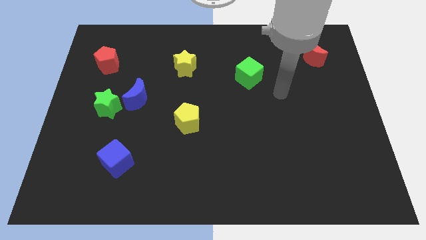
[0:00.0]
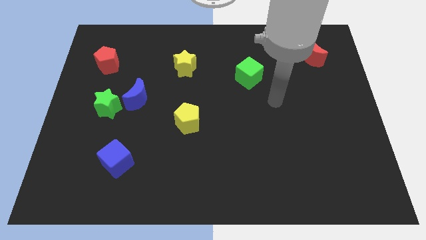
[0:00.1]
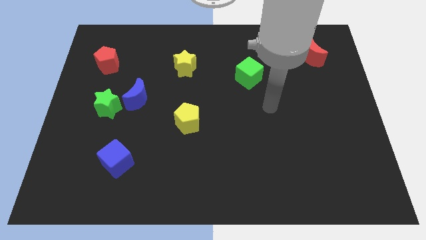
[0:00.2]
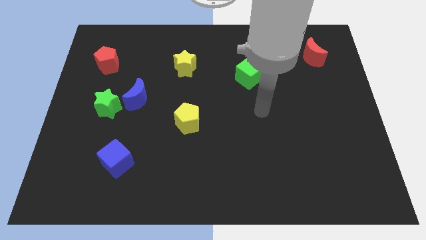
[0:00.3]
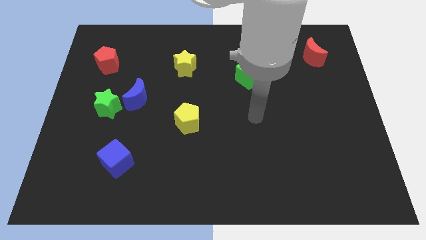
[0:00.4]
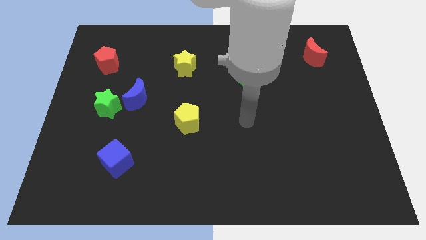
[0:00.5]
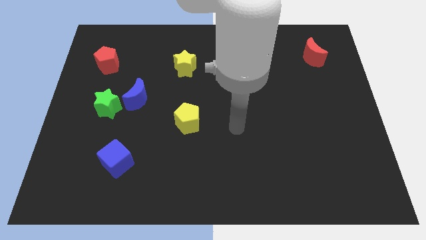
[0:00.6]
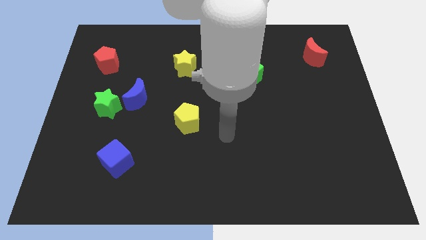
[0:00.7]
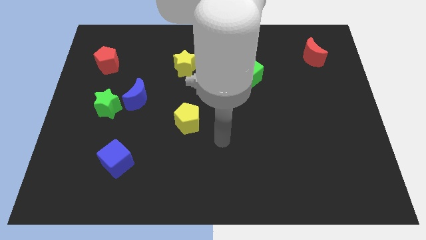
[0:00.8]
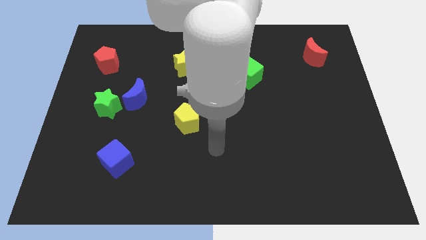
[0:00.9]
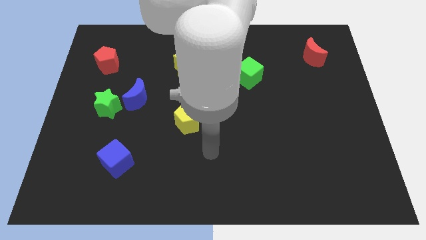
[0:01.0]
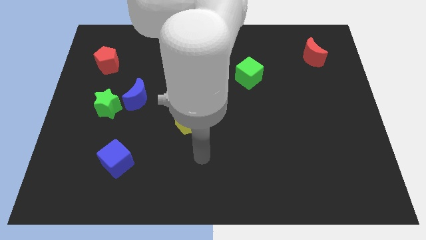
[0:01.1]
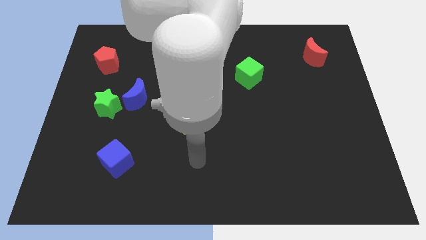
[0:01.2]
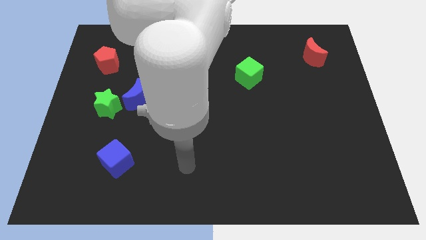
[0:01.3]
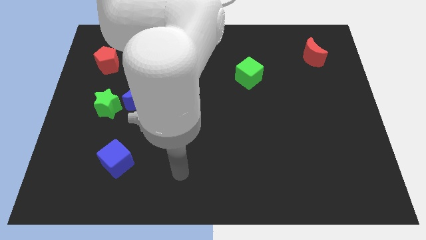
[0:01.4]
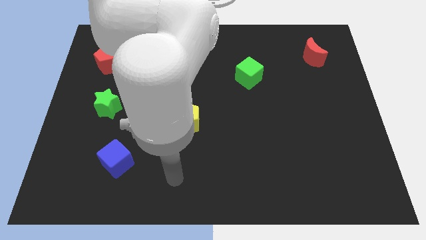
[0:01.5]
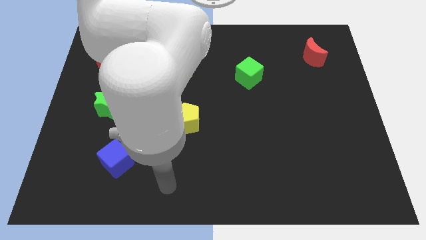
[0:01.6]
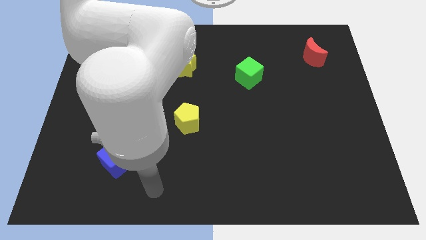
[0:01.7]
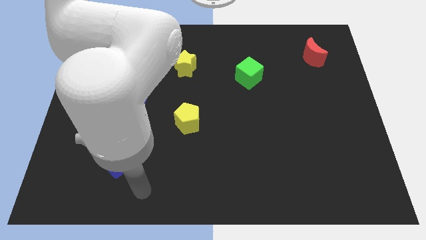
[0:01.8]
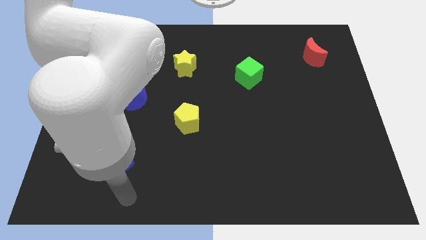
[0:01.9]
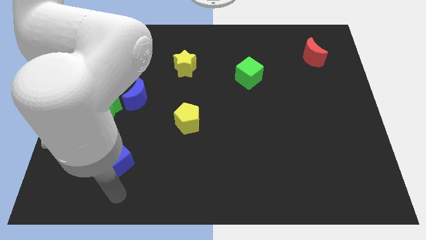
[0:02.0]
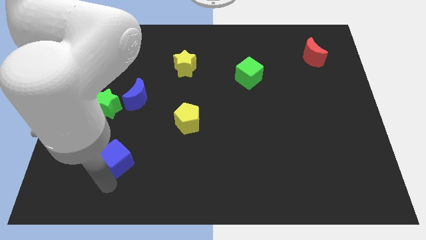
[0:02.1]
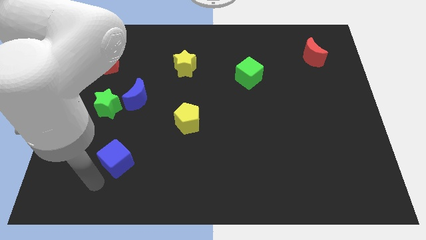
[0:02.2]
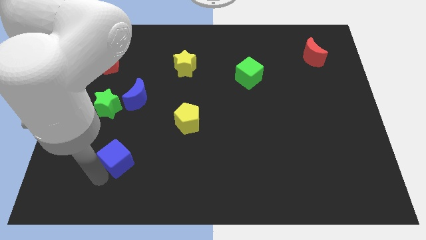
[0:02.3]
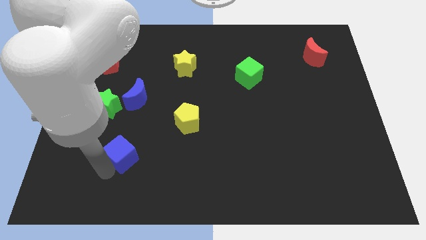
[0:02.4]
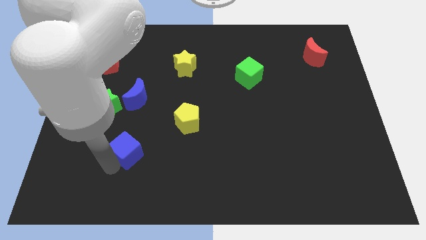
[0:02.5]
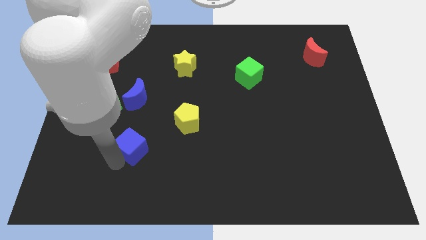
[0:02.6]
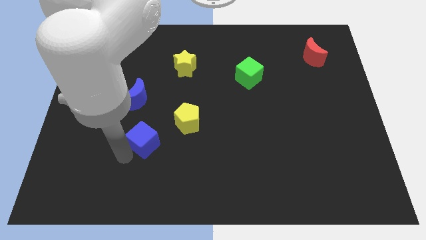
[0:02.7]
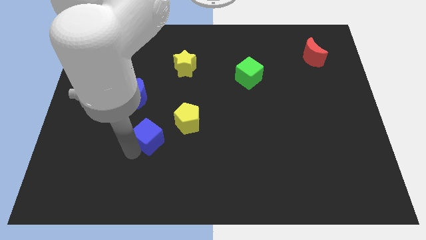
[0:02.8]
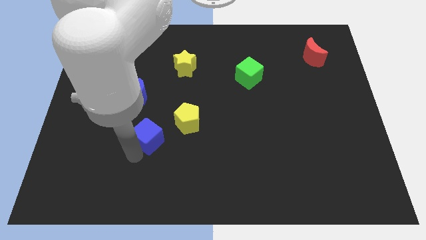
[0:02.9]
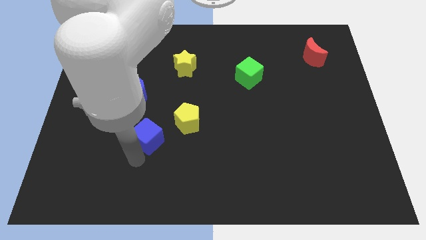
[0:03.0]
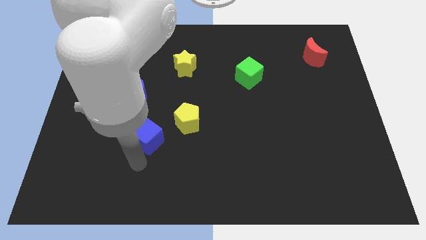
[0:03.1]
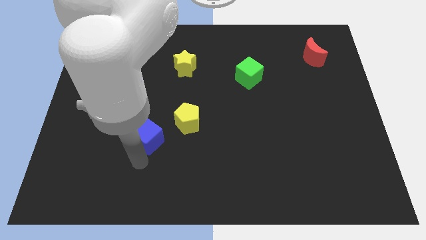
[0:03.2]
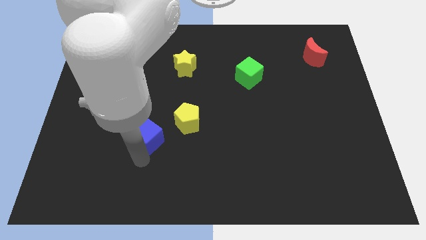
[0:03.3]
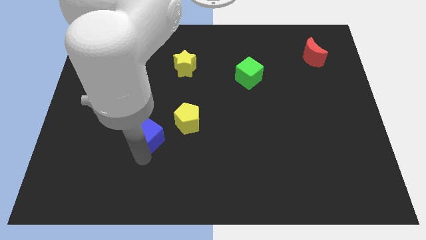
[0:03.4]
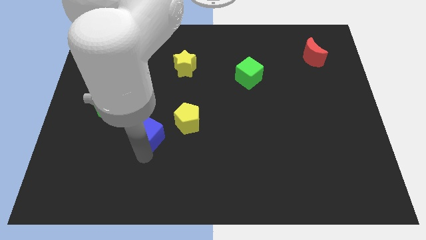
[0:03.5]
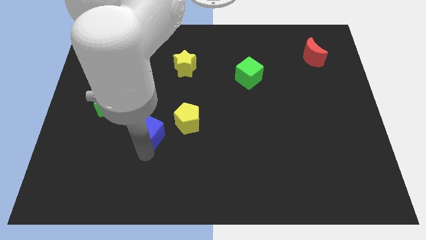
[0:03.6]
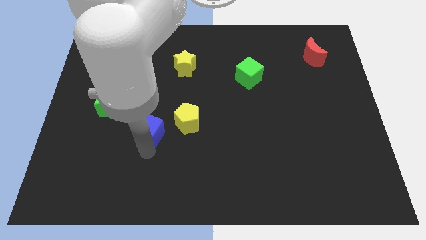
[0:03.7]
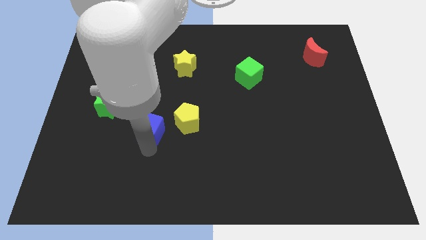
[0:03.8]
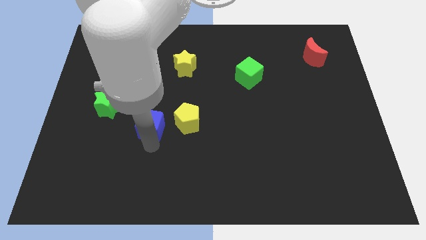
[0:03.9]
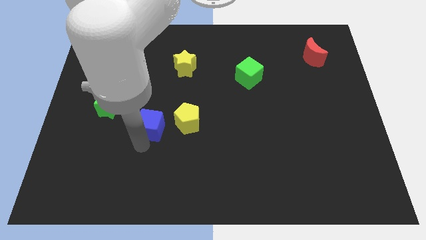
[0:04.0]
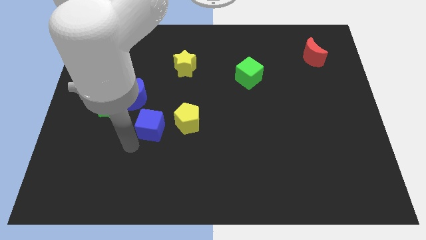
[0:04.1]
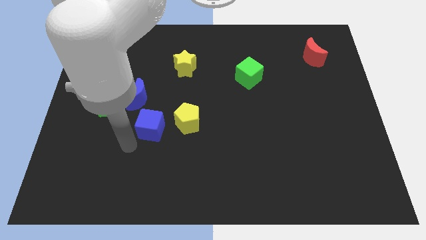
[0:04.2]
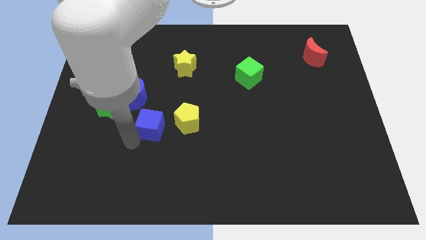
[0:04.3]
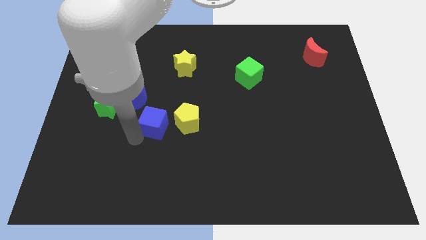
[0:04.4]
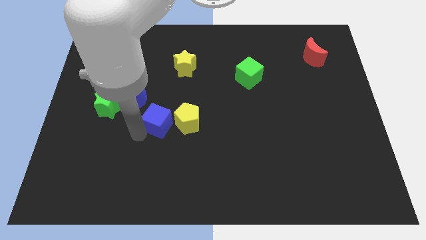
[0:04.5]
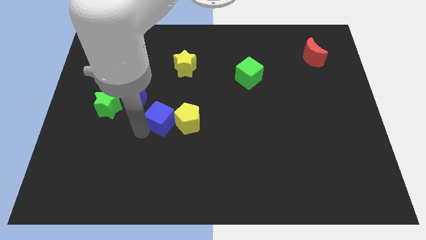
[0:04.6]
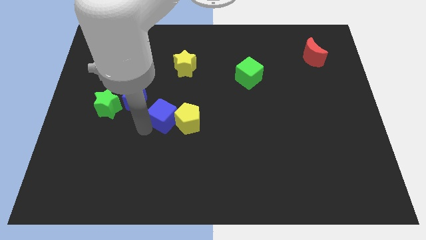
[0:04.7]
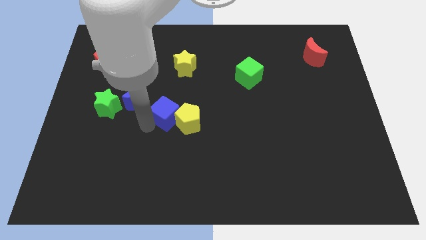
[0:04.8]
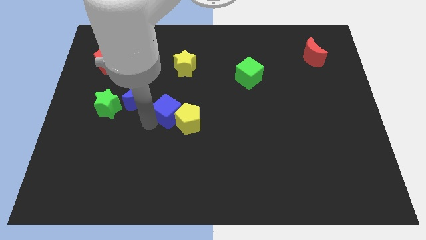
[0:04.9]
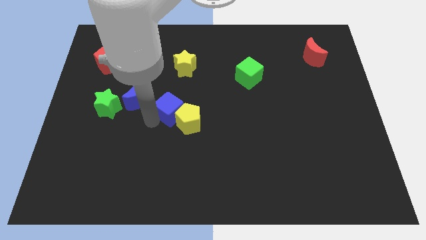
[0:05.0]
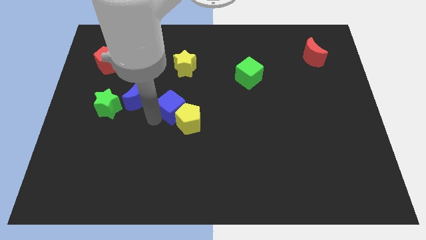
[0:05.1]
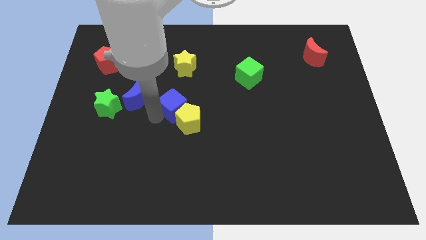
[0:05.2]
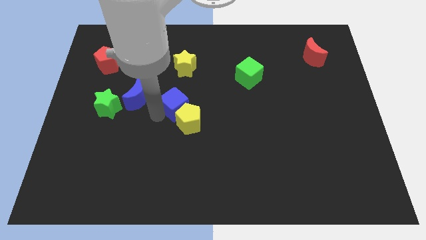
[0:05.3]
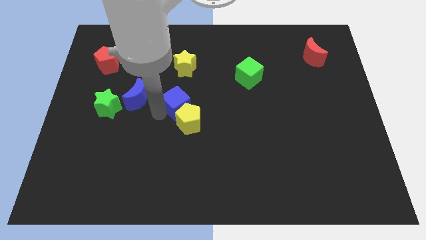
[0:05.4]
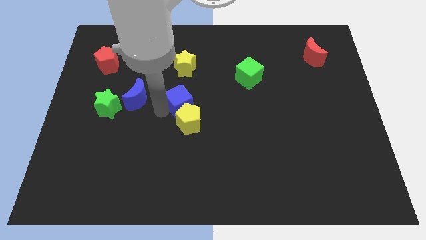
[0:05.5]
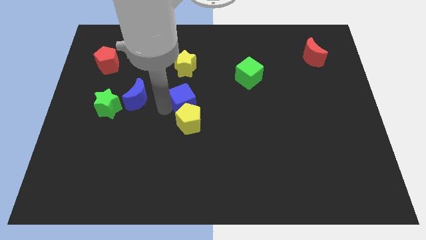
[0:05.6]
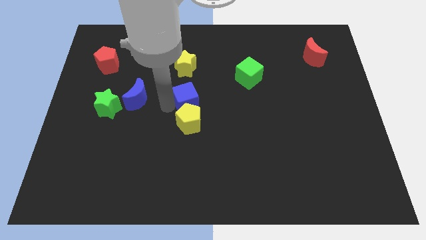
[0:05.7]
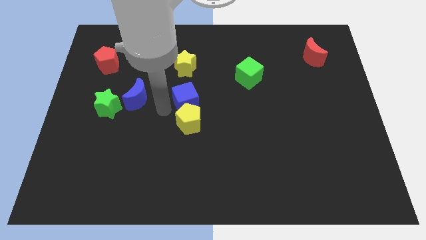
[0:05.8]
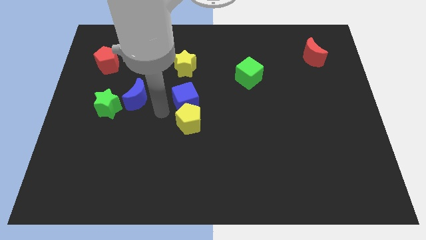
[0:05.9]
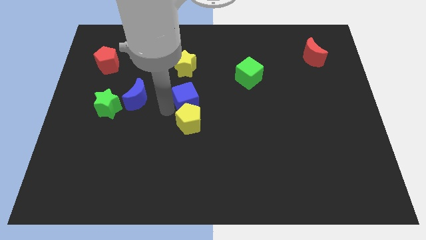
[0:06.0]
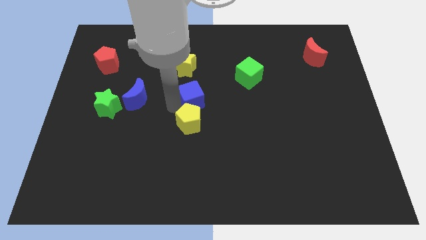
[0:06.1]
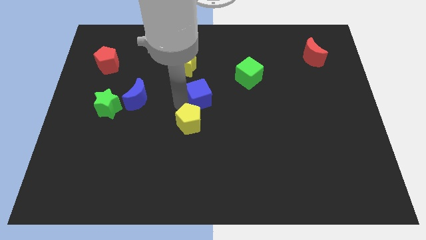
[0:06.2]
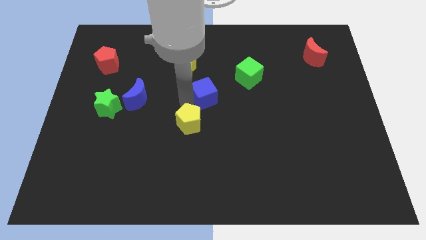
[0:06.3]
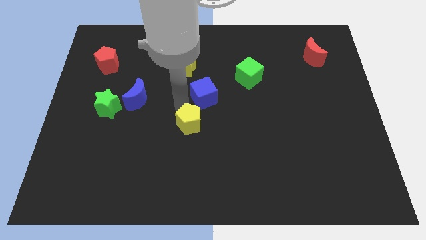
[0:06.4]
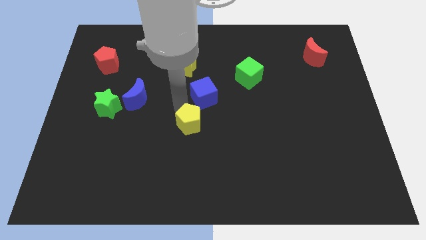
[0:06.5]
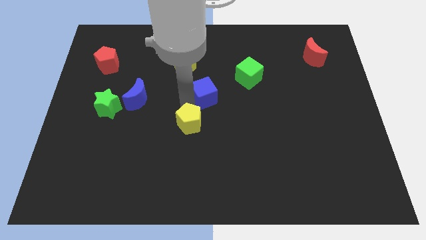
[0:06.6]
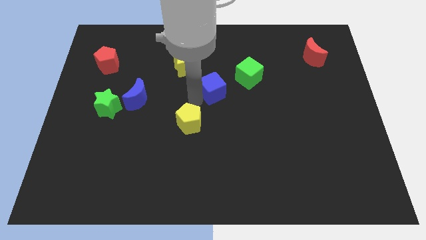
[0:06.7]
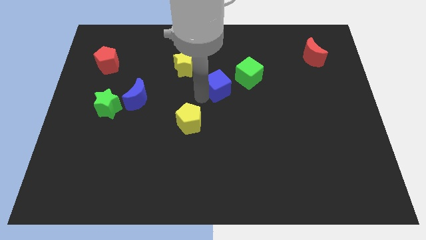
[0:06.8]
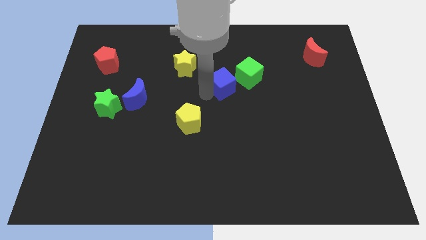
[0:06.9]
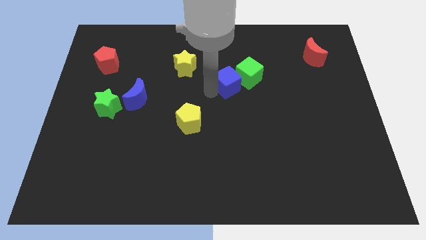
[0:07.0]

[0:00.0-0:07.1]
push the blue cube next to the green cube

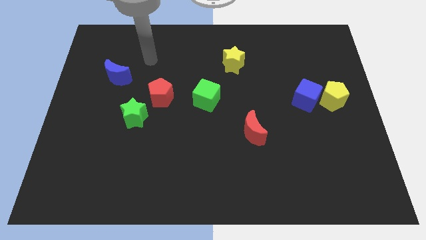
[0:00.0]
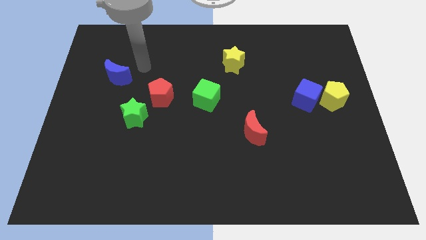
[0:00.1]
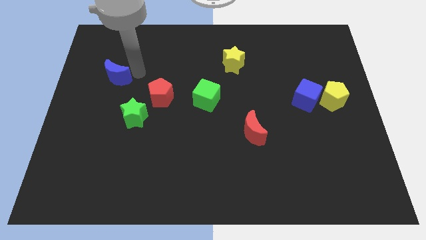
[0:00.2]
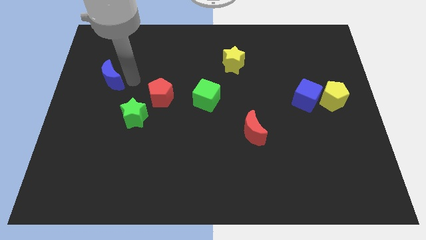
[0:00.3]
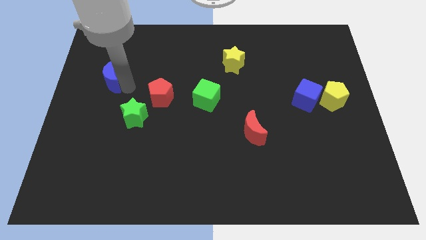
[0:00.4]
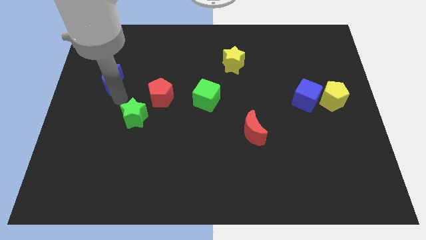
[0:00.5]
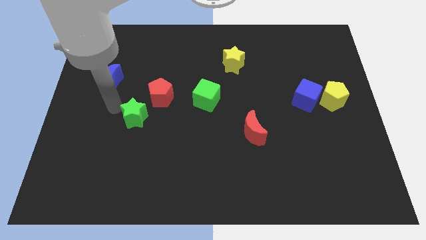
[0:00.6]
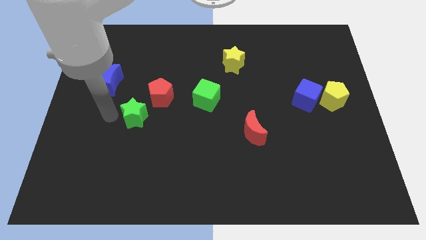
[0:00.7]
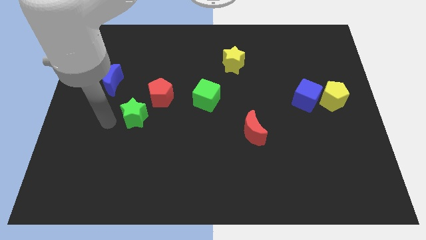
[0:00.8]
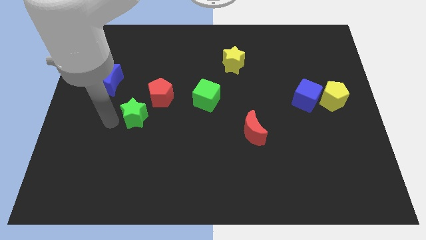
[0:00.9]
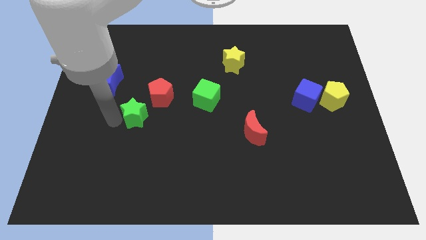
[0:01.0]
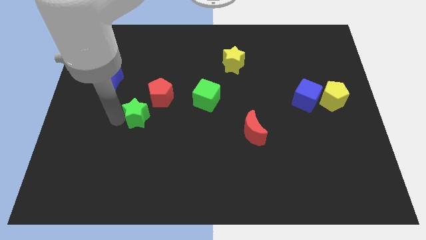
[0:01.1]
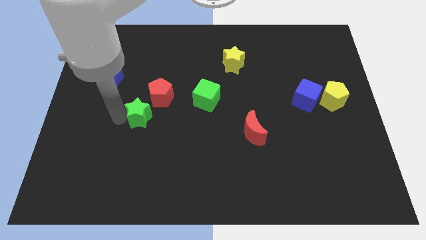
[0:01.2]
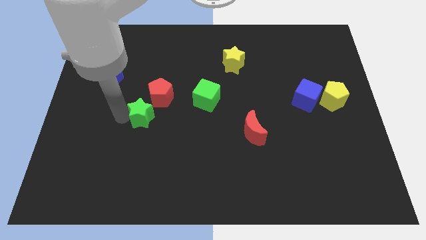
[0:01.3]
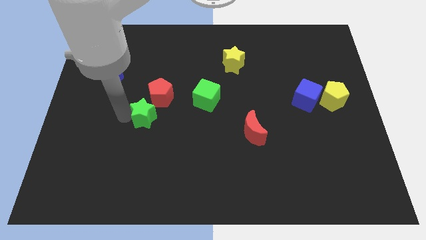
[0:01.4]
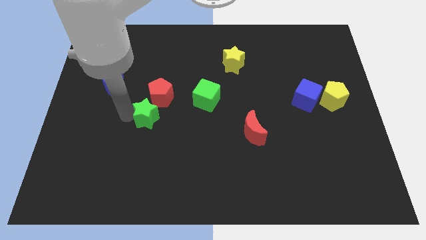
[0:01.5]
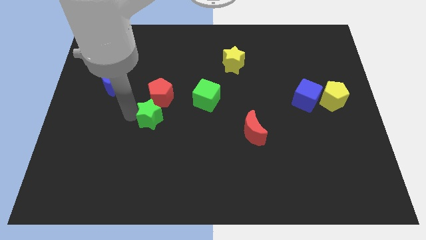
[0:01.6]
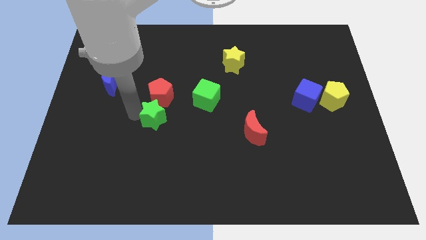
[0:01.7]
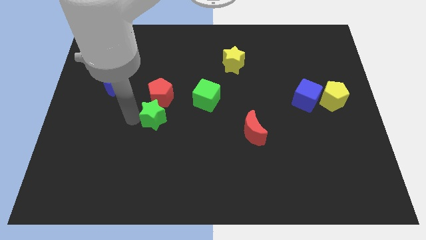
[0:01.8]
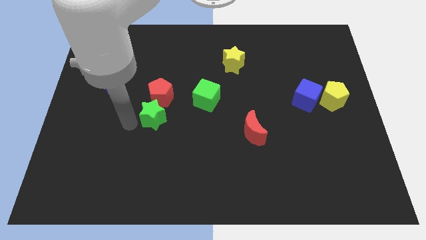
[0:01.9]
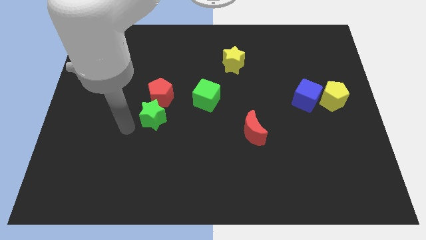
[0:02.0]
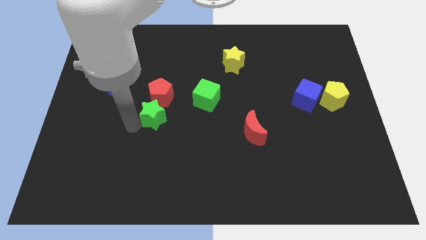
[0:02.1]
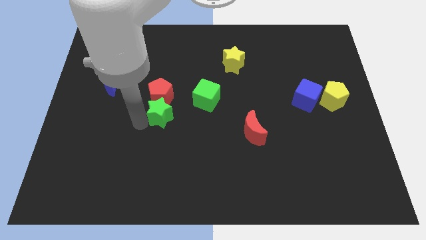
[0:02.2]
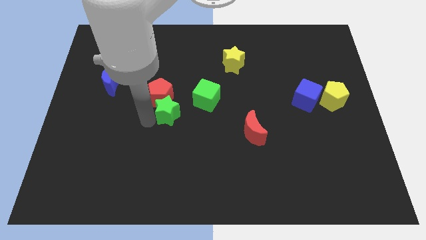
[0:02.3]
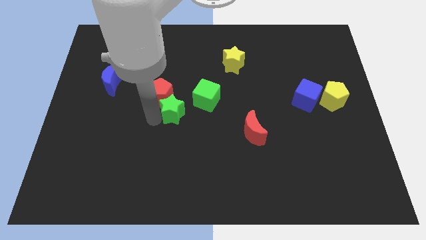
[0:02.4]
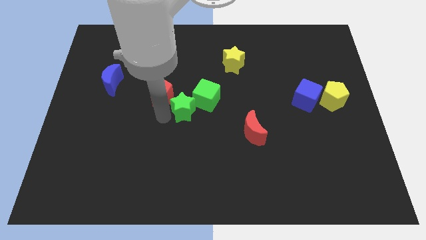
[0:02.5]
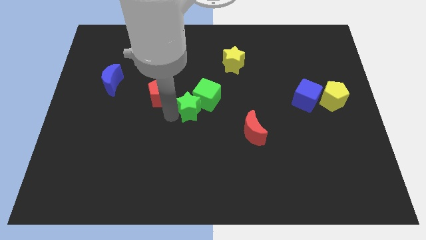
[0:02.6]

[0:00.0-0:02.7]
put the green star close to the green cube
